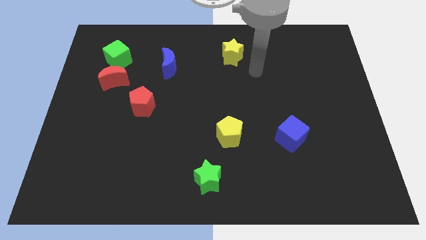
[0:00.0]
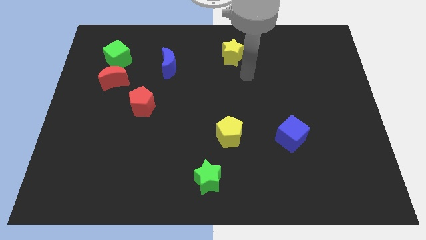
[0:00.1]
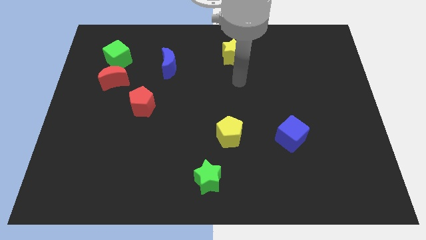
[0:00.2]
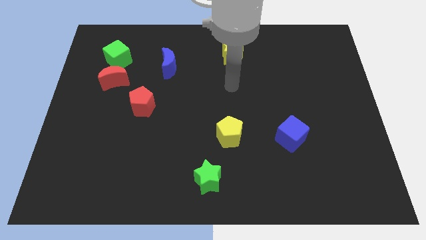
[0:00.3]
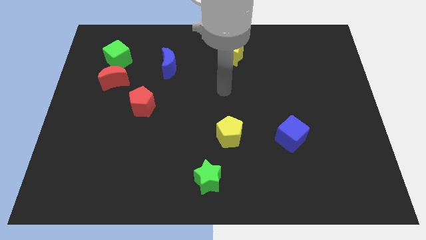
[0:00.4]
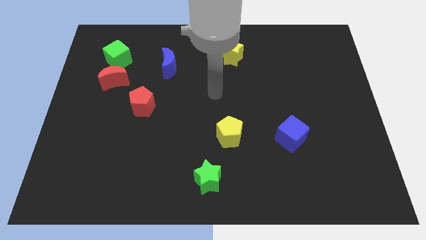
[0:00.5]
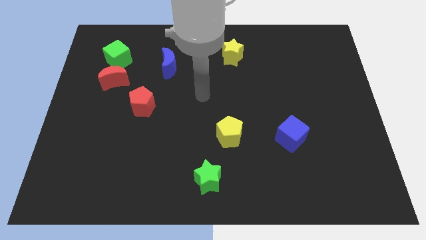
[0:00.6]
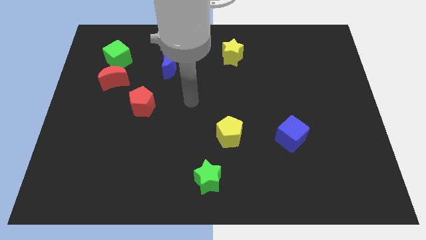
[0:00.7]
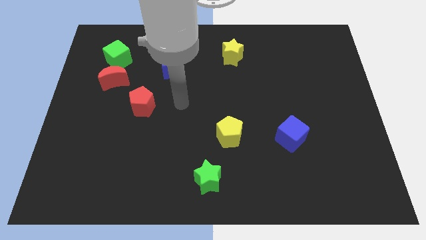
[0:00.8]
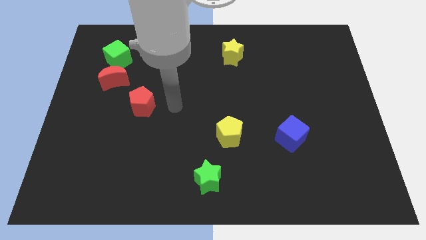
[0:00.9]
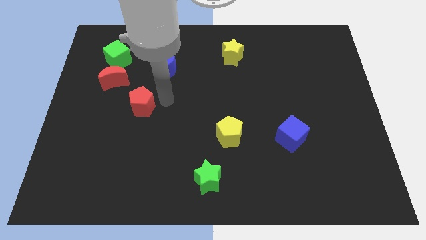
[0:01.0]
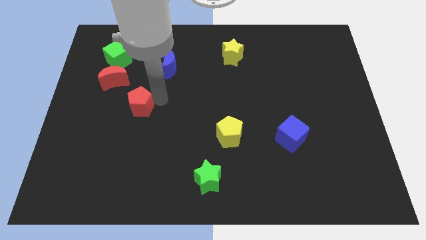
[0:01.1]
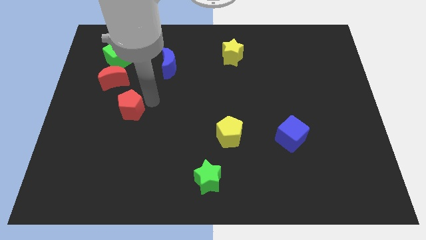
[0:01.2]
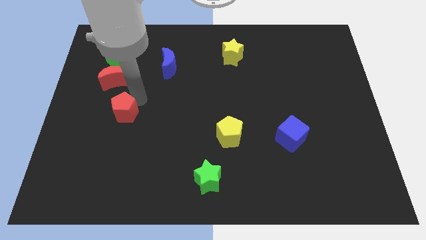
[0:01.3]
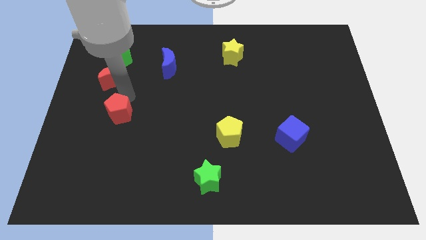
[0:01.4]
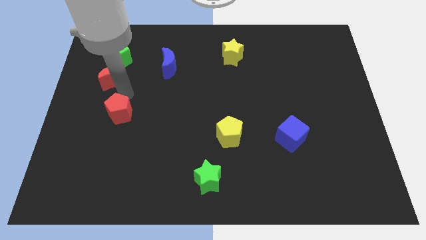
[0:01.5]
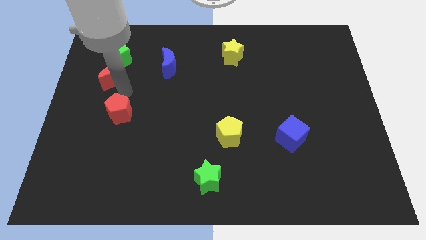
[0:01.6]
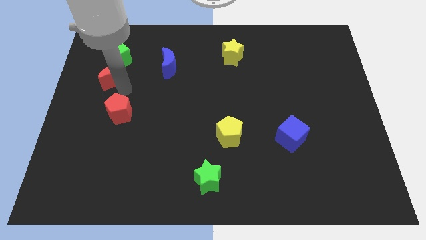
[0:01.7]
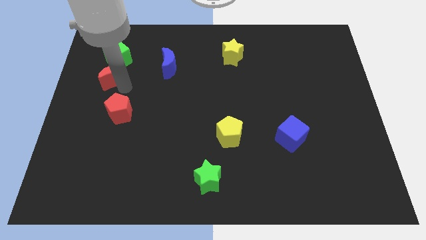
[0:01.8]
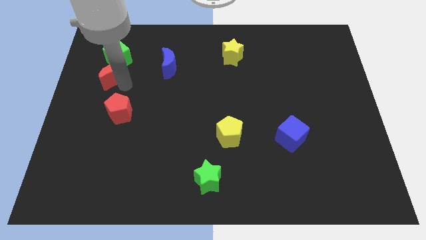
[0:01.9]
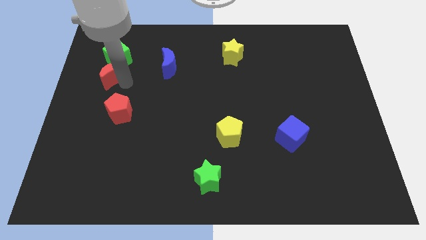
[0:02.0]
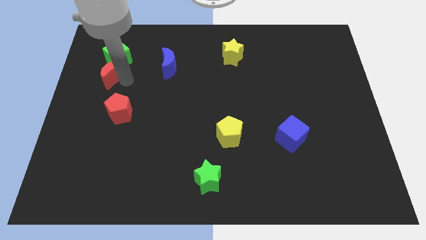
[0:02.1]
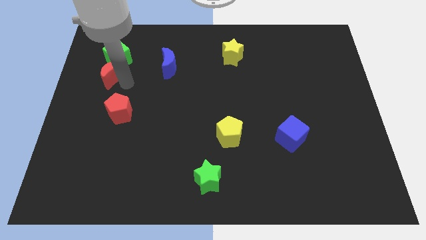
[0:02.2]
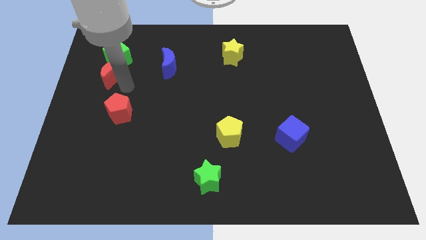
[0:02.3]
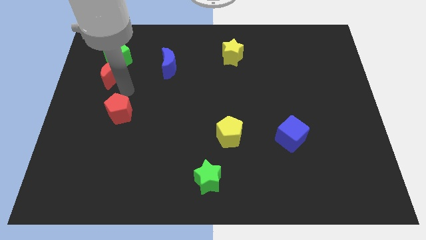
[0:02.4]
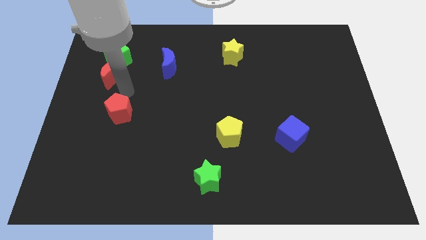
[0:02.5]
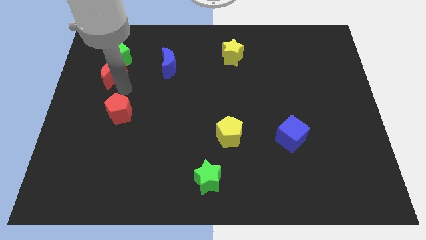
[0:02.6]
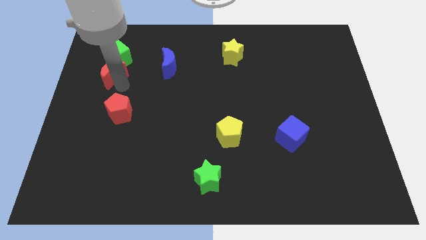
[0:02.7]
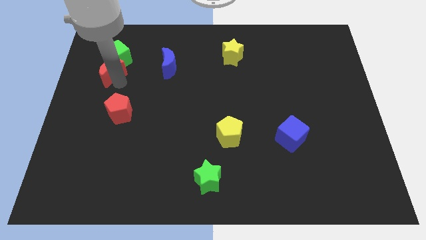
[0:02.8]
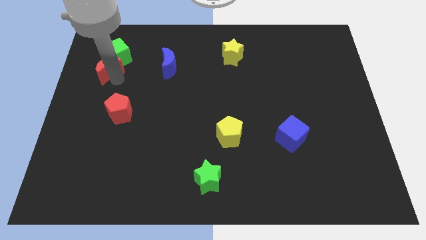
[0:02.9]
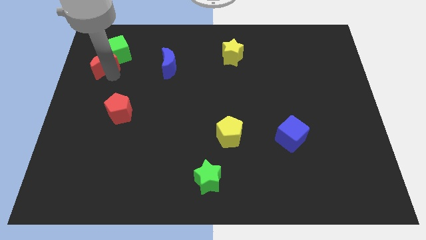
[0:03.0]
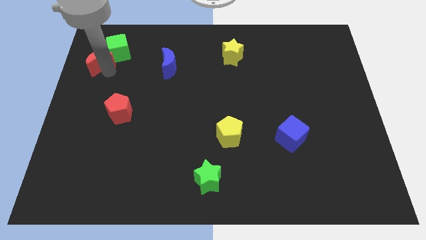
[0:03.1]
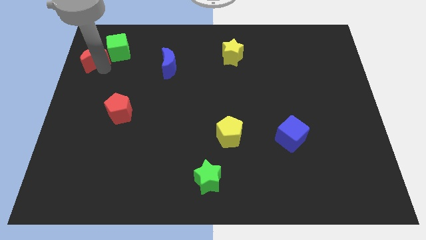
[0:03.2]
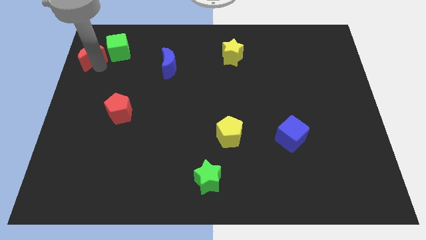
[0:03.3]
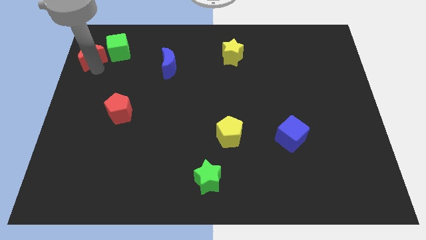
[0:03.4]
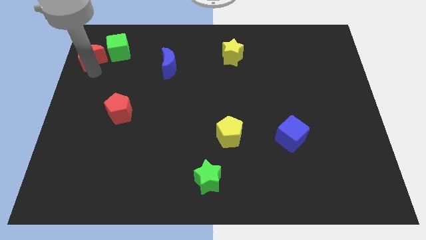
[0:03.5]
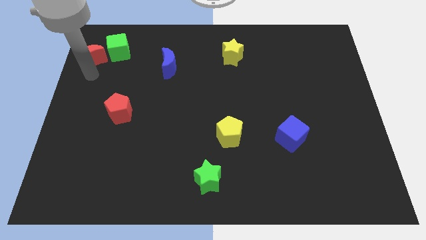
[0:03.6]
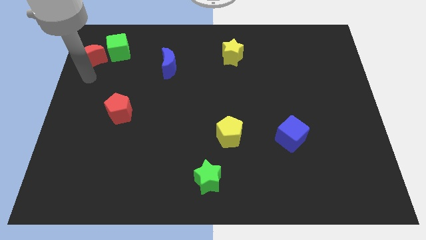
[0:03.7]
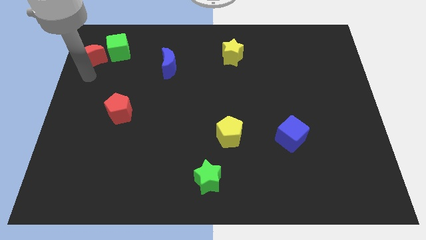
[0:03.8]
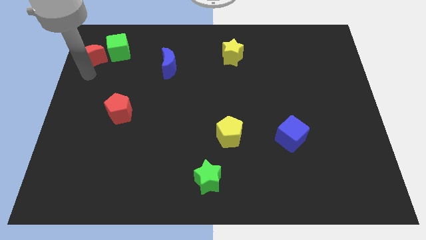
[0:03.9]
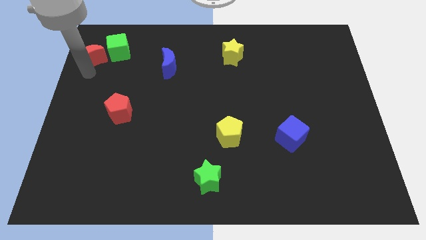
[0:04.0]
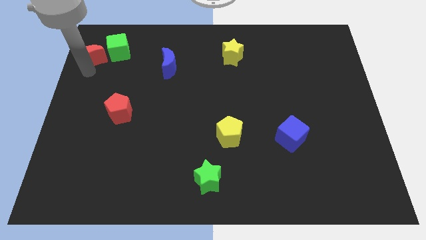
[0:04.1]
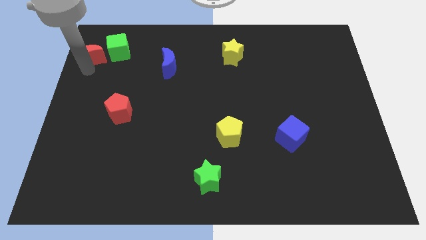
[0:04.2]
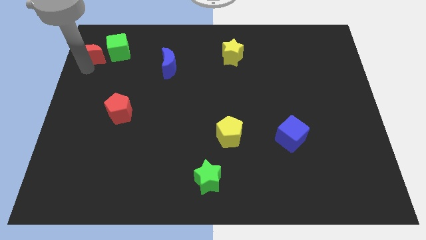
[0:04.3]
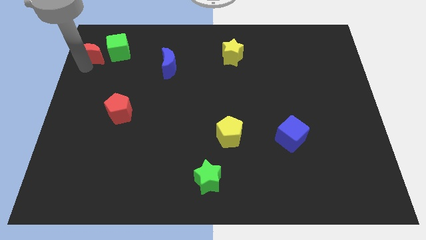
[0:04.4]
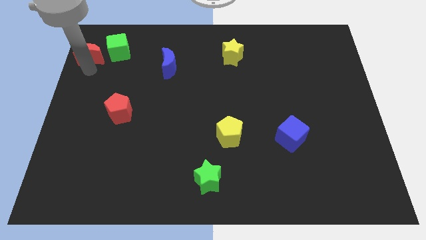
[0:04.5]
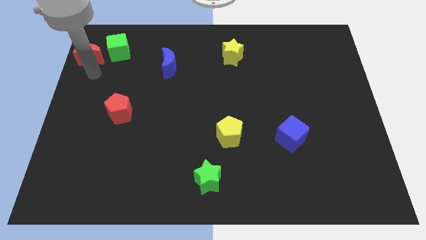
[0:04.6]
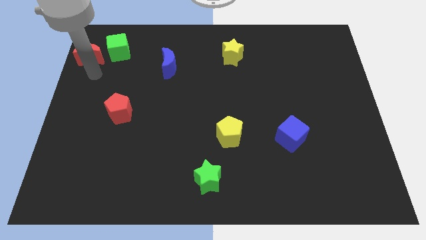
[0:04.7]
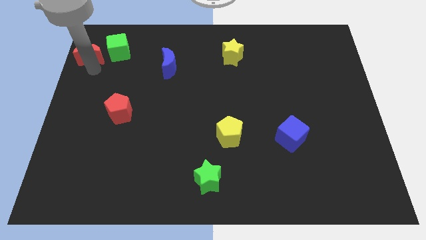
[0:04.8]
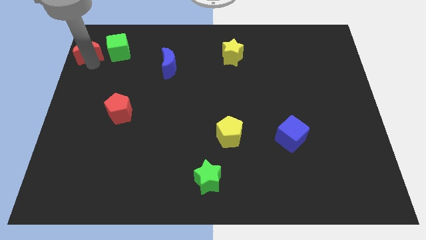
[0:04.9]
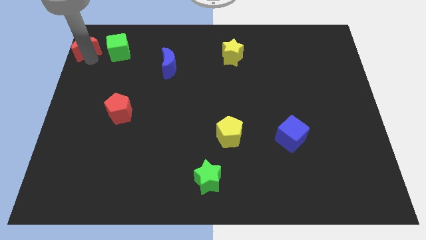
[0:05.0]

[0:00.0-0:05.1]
slide the red moon to the upper left corner

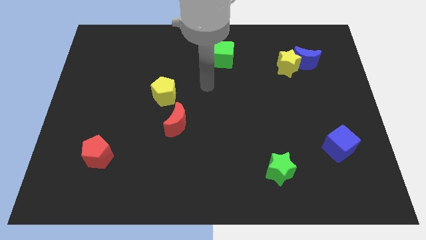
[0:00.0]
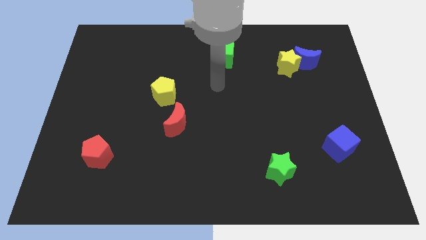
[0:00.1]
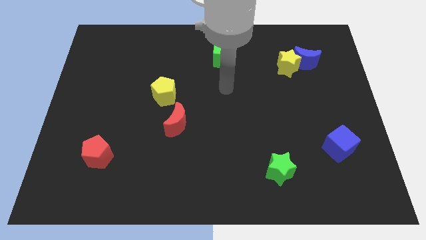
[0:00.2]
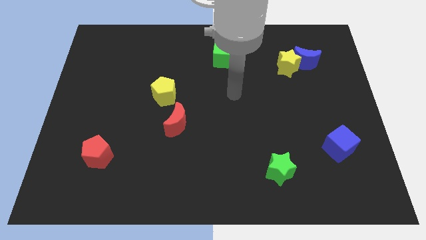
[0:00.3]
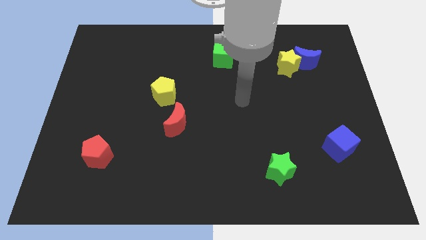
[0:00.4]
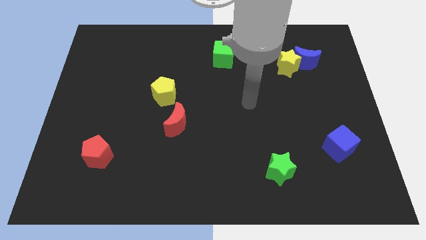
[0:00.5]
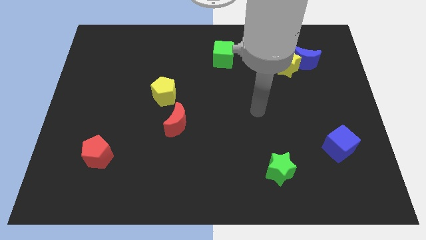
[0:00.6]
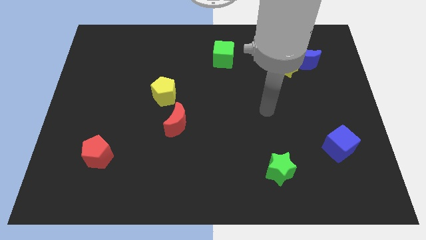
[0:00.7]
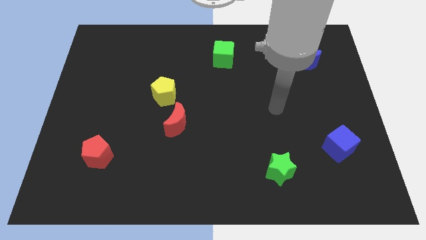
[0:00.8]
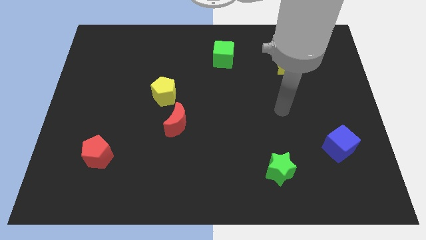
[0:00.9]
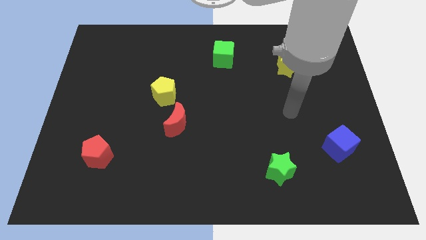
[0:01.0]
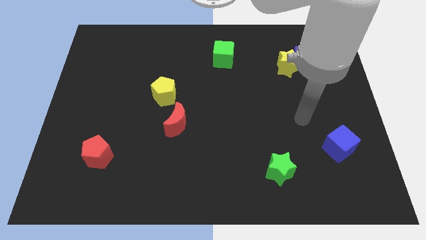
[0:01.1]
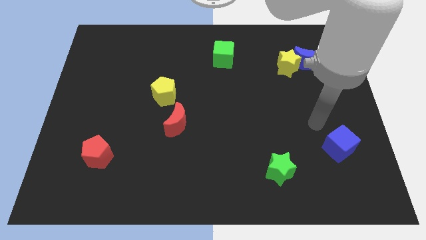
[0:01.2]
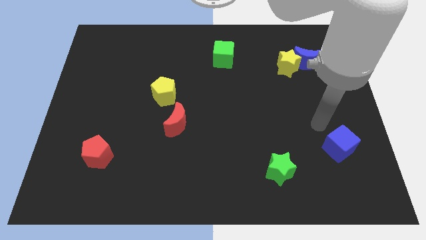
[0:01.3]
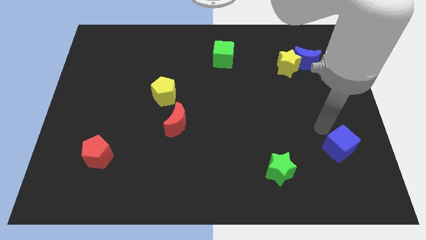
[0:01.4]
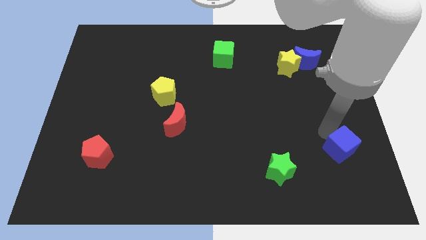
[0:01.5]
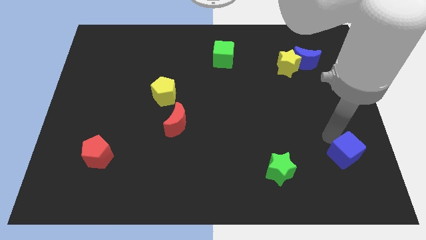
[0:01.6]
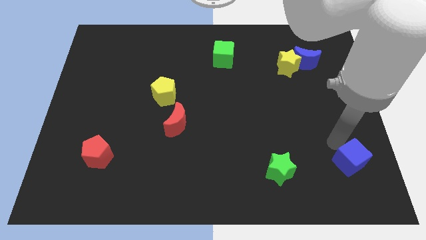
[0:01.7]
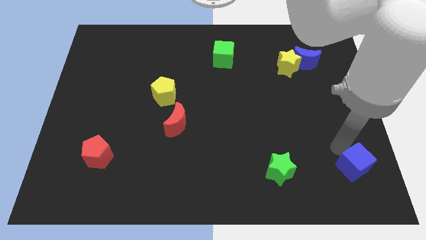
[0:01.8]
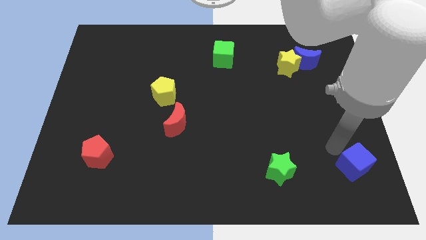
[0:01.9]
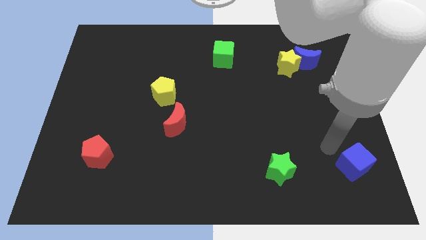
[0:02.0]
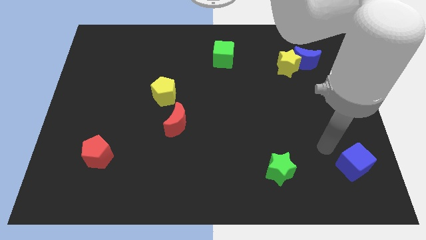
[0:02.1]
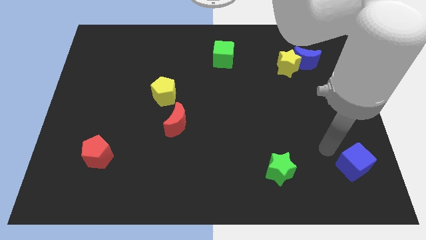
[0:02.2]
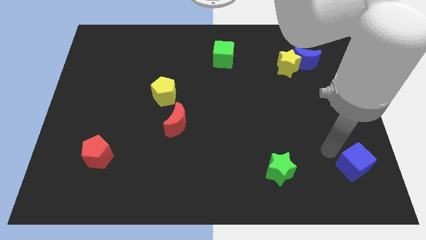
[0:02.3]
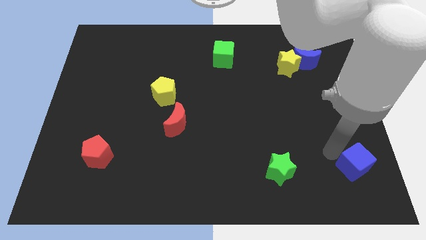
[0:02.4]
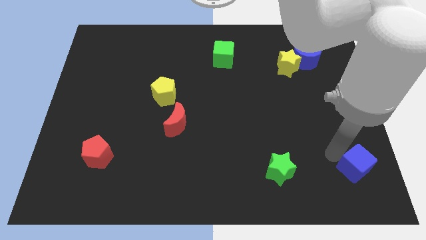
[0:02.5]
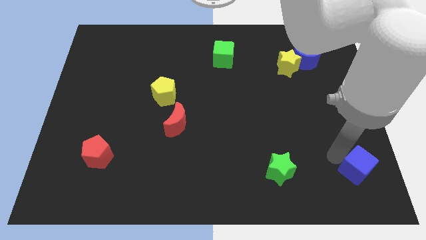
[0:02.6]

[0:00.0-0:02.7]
move the blue cube to the lower right corner
